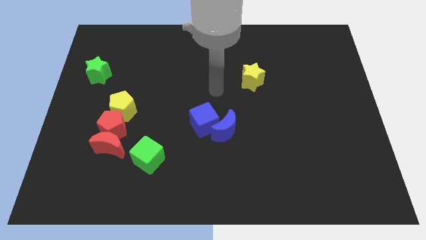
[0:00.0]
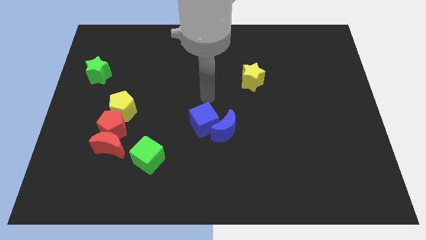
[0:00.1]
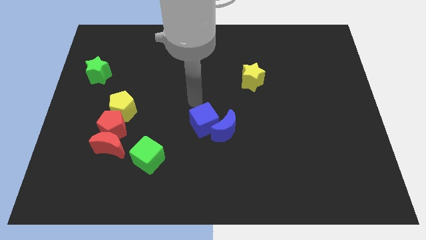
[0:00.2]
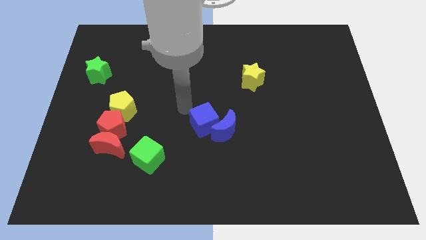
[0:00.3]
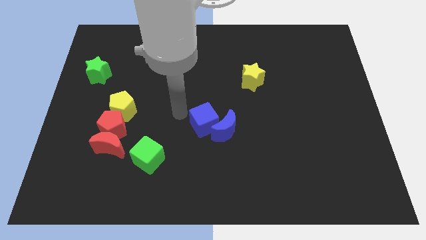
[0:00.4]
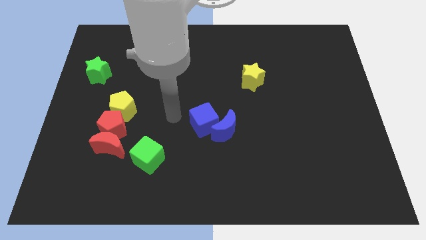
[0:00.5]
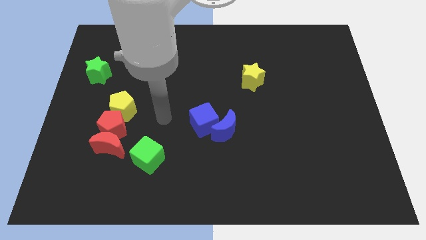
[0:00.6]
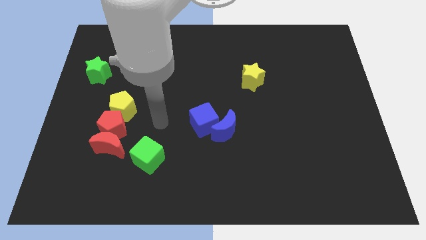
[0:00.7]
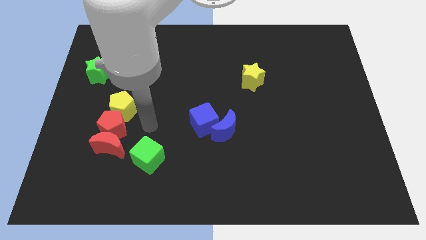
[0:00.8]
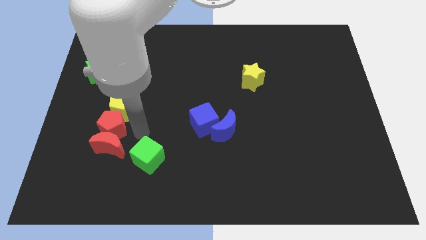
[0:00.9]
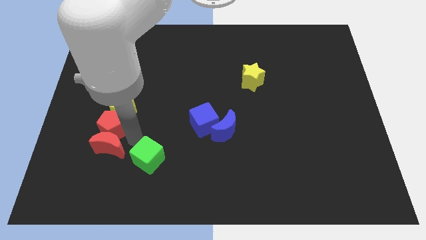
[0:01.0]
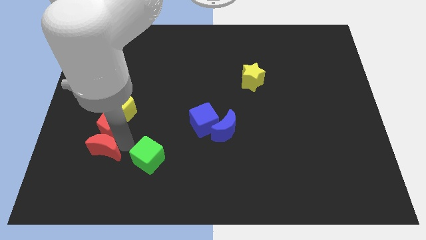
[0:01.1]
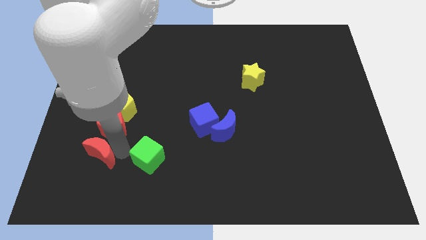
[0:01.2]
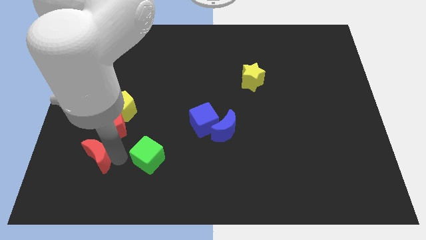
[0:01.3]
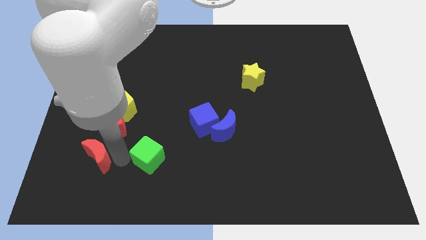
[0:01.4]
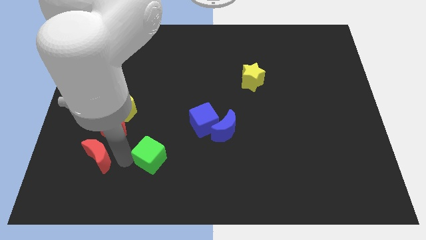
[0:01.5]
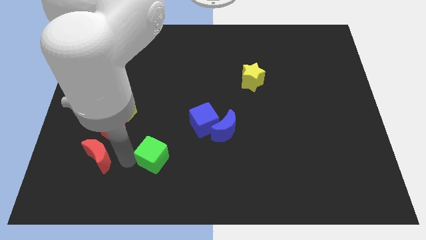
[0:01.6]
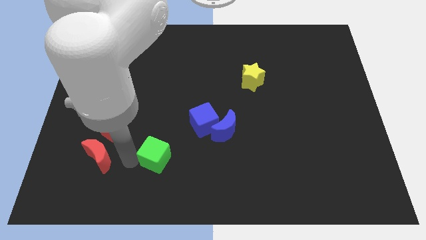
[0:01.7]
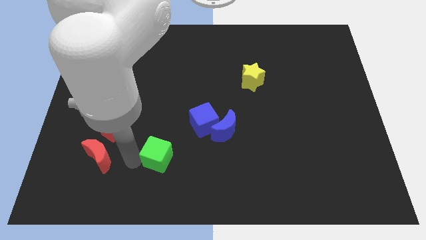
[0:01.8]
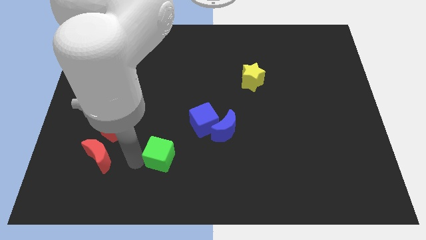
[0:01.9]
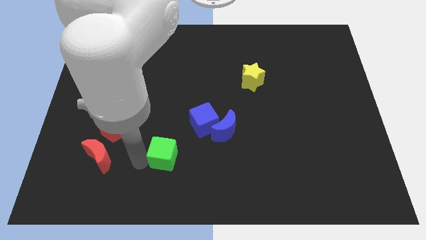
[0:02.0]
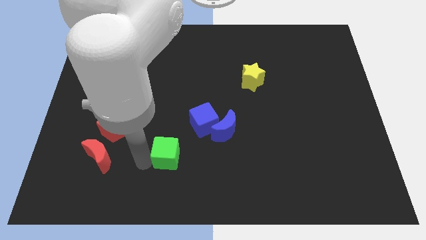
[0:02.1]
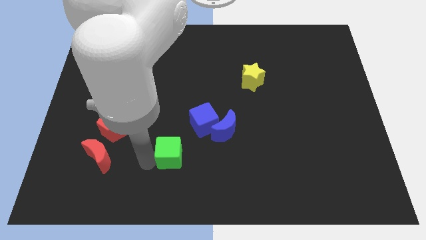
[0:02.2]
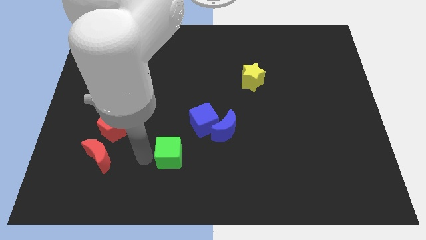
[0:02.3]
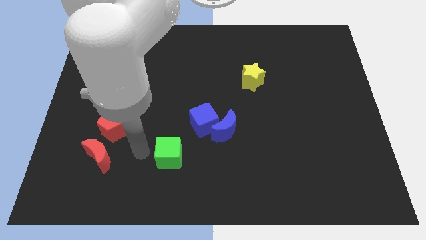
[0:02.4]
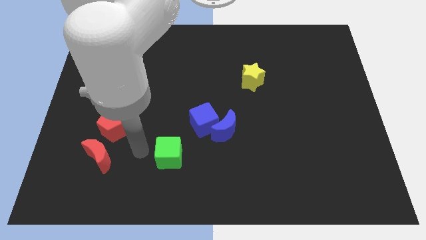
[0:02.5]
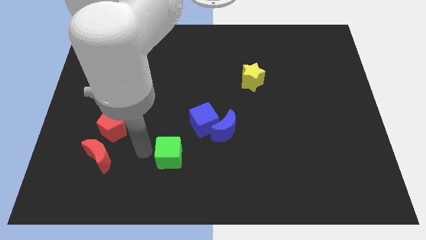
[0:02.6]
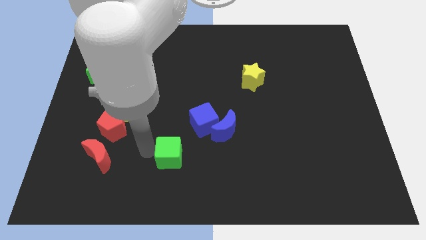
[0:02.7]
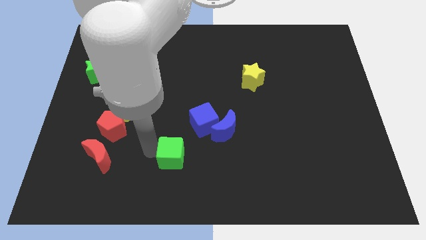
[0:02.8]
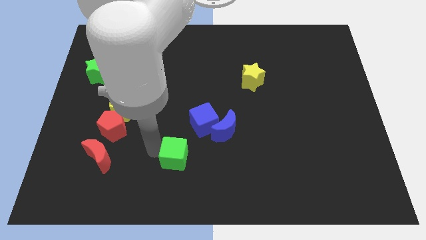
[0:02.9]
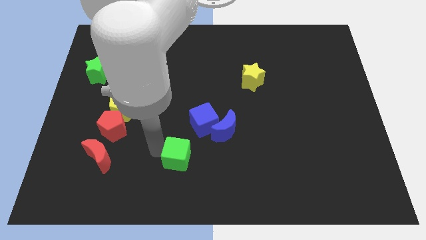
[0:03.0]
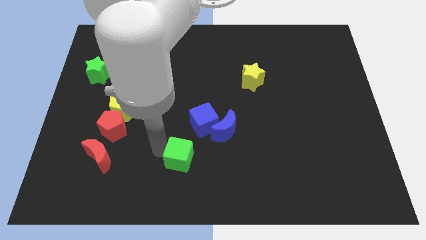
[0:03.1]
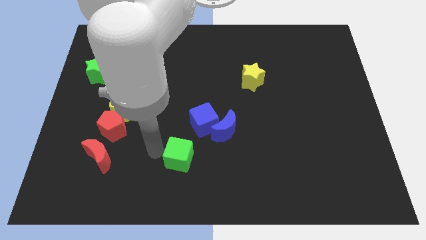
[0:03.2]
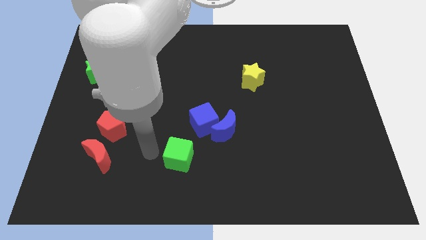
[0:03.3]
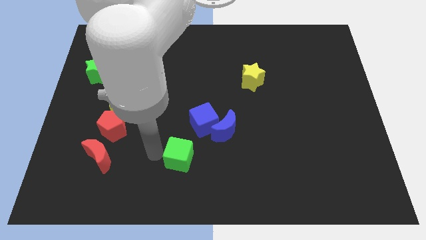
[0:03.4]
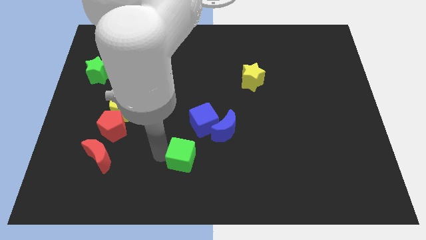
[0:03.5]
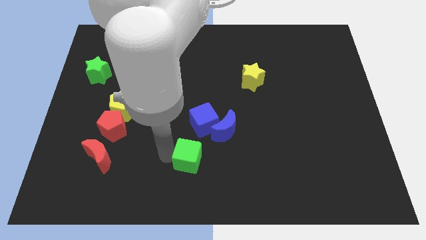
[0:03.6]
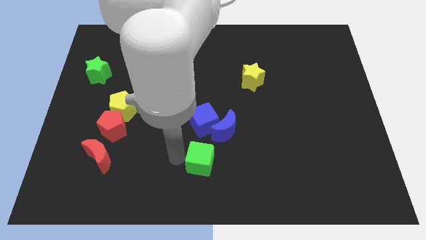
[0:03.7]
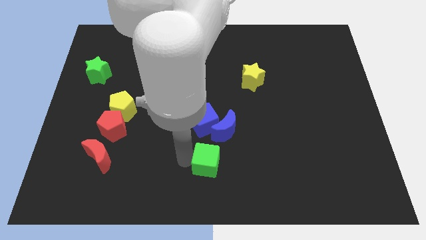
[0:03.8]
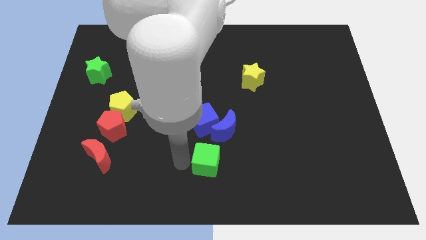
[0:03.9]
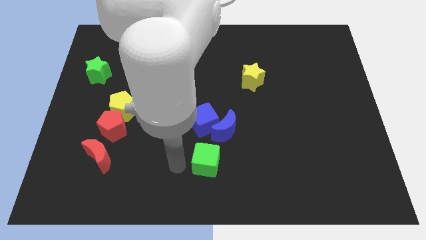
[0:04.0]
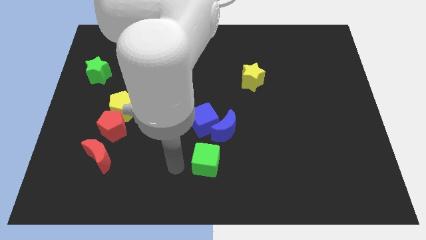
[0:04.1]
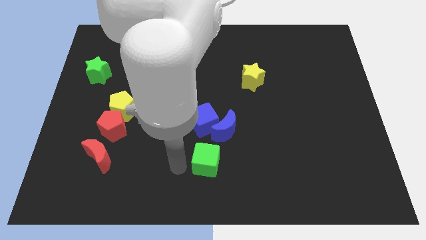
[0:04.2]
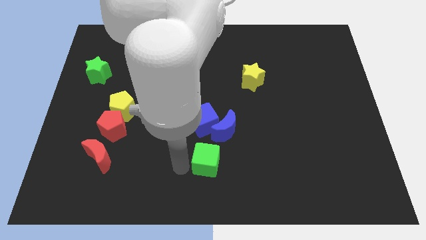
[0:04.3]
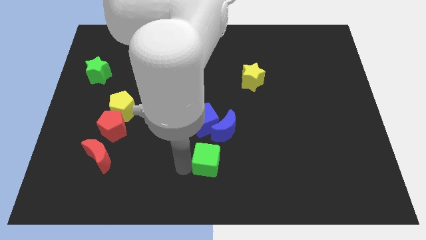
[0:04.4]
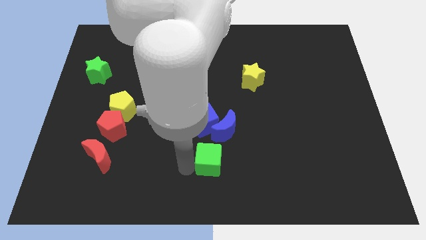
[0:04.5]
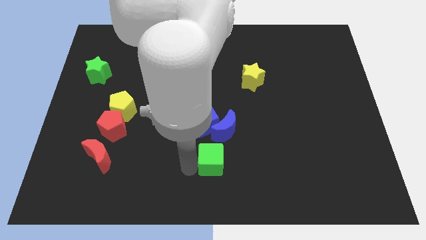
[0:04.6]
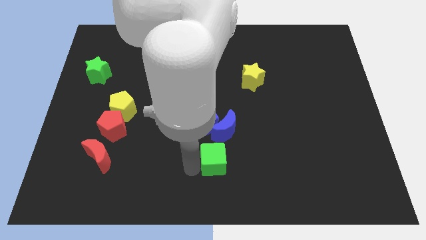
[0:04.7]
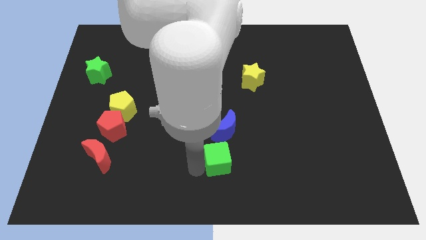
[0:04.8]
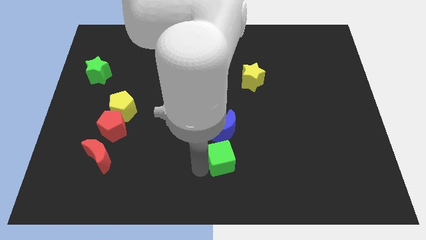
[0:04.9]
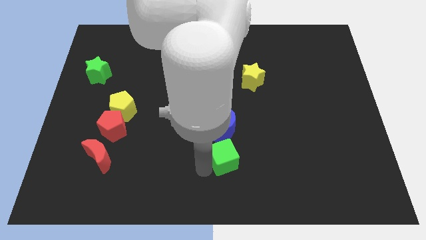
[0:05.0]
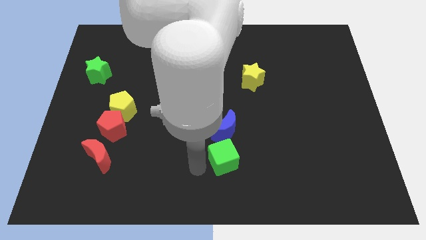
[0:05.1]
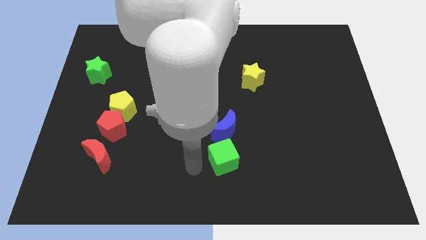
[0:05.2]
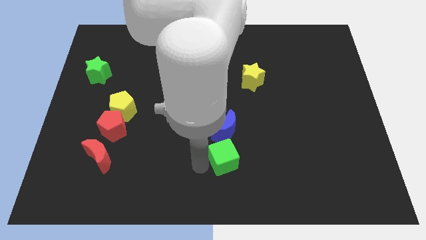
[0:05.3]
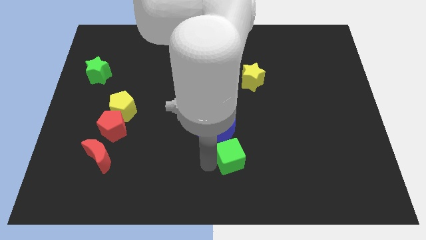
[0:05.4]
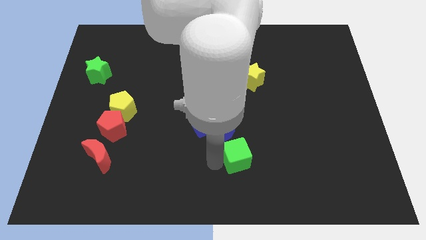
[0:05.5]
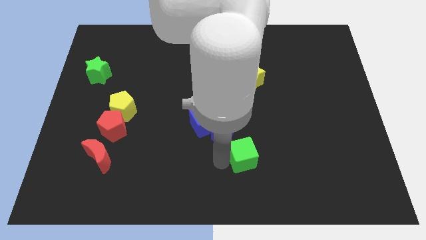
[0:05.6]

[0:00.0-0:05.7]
push the green cube to the right

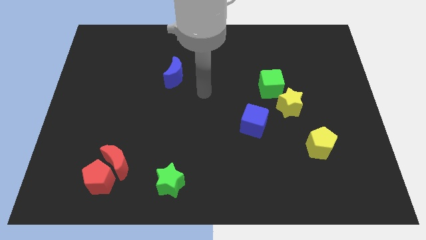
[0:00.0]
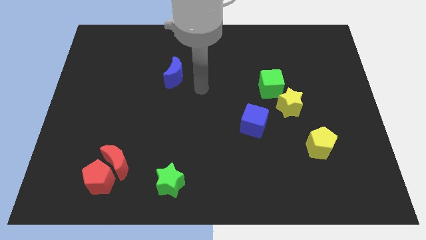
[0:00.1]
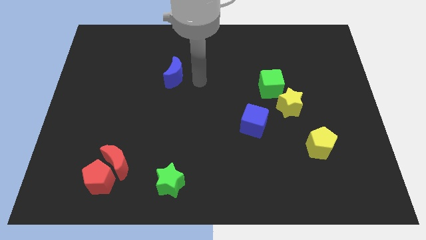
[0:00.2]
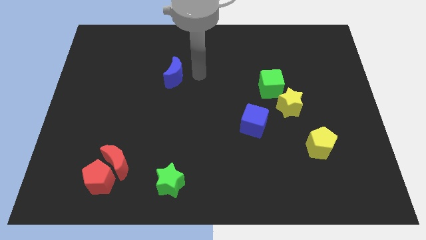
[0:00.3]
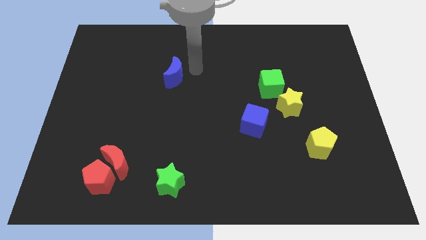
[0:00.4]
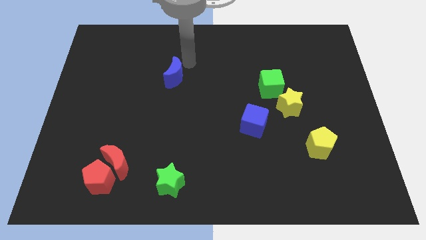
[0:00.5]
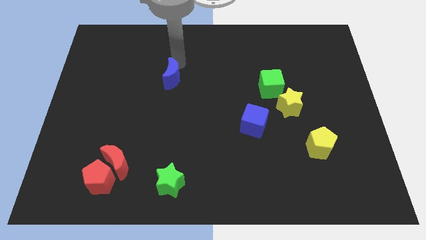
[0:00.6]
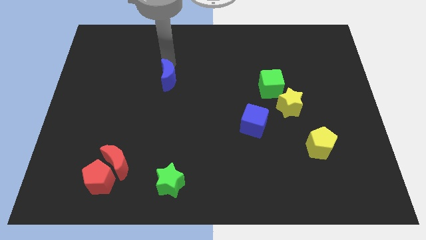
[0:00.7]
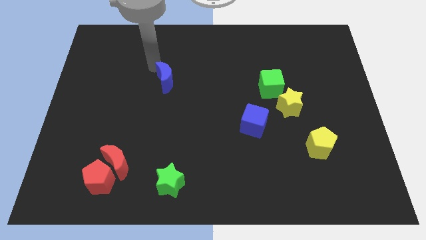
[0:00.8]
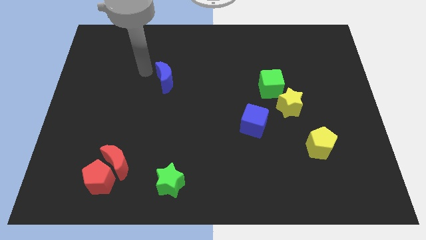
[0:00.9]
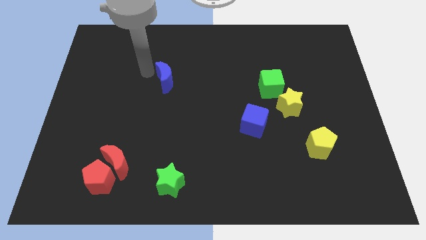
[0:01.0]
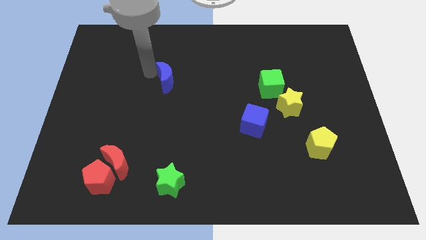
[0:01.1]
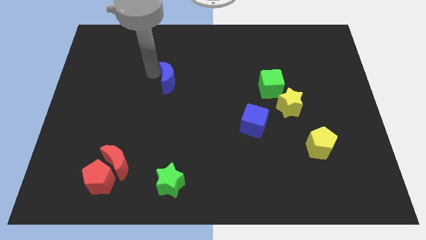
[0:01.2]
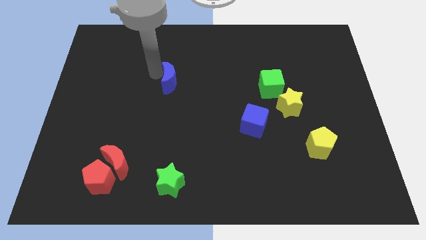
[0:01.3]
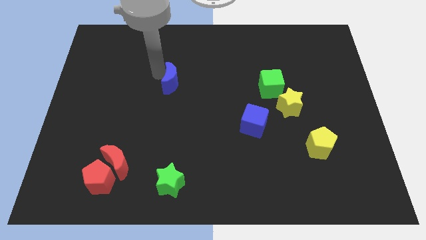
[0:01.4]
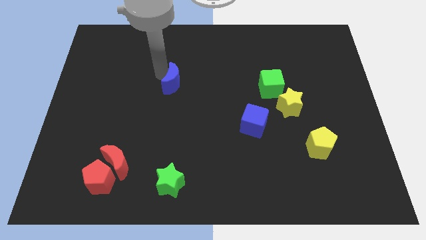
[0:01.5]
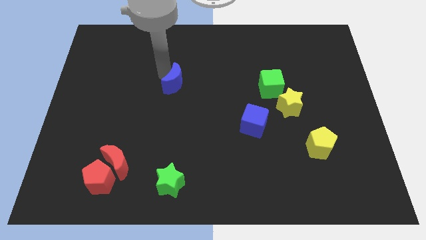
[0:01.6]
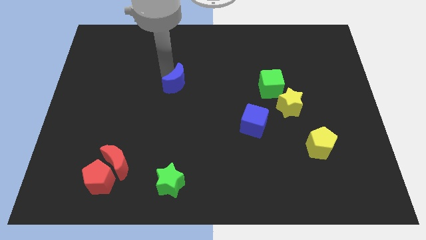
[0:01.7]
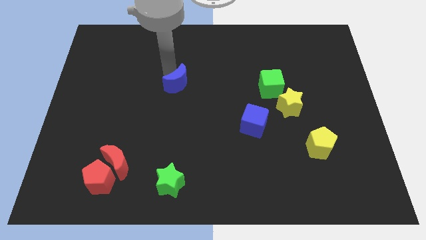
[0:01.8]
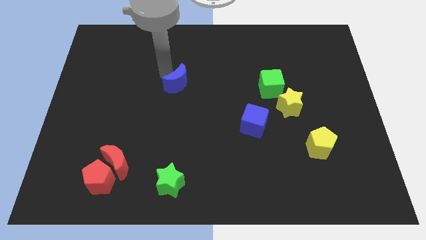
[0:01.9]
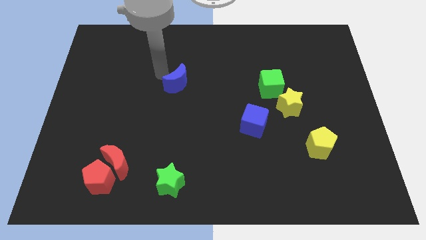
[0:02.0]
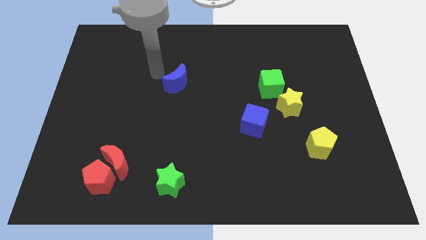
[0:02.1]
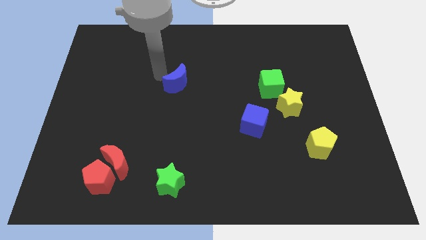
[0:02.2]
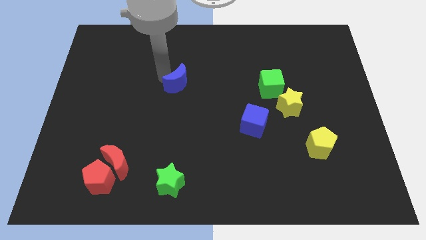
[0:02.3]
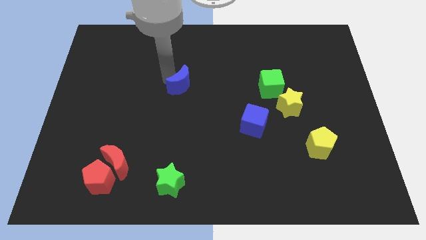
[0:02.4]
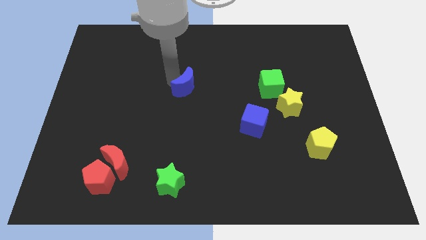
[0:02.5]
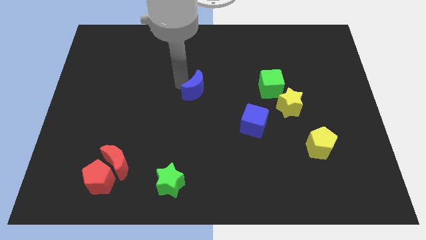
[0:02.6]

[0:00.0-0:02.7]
slide the blue moon somewhat downwards and to the right
